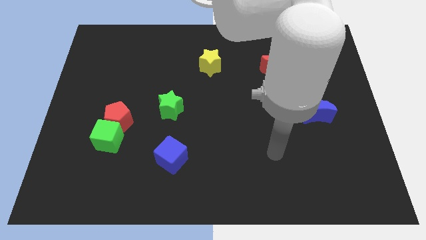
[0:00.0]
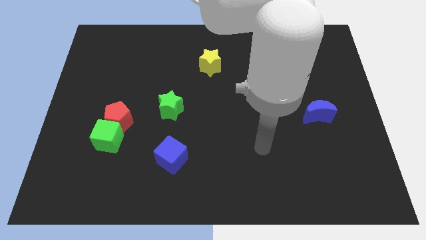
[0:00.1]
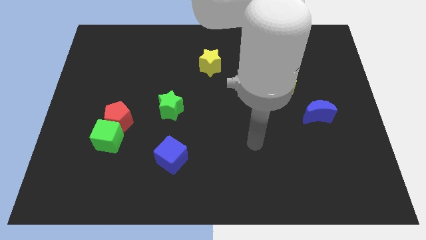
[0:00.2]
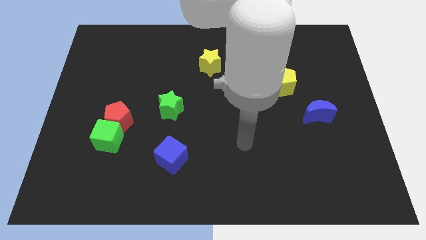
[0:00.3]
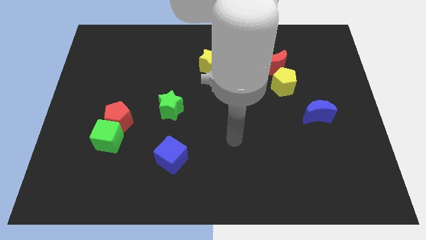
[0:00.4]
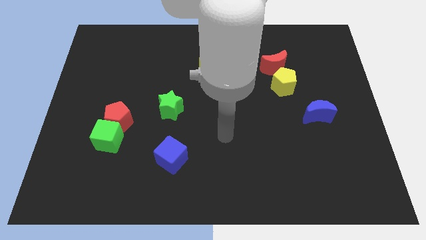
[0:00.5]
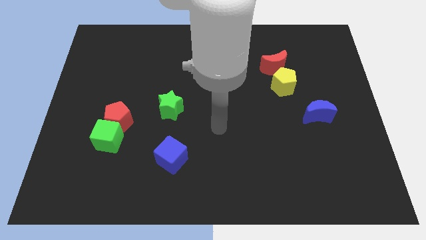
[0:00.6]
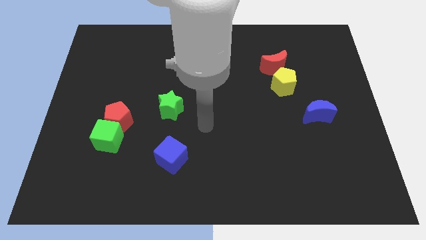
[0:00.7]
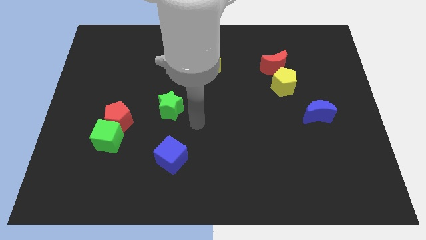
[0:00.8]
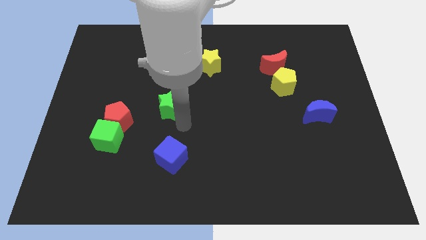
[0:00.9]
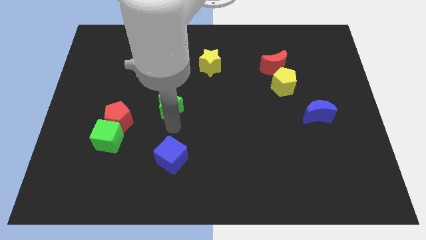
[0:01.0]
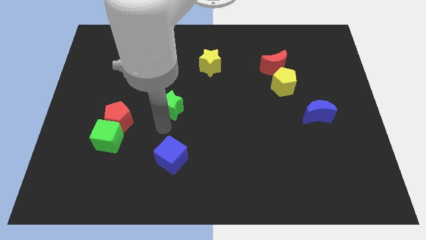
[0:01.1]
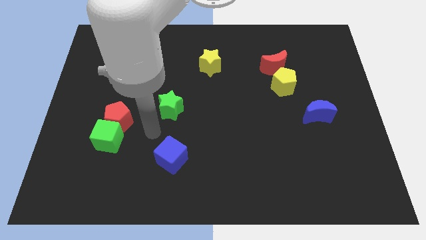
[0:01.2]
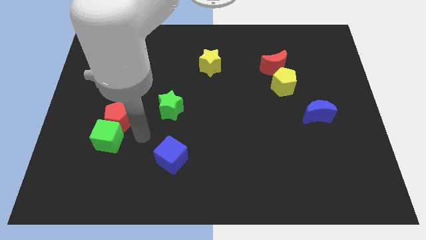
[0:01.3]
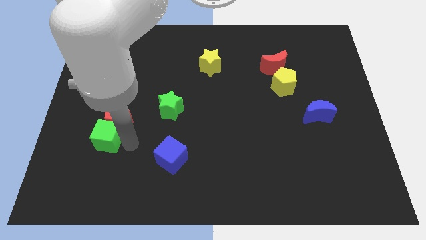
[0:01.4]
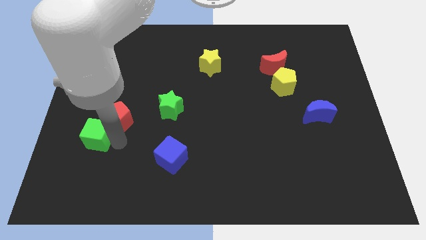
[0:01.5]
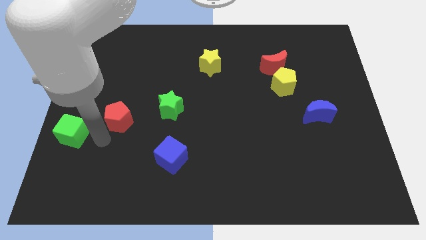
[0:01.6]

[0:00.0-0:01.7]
move the red pentagon away from the green cube

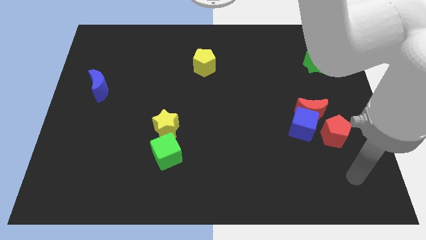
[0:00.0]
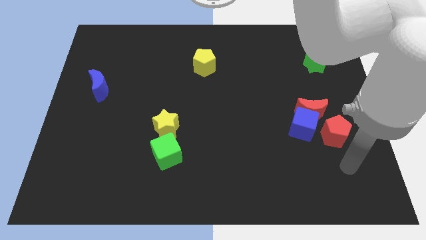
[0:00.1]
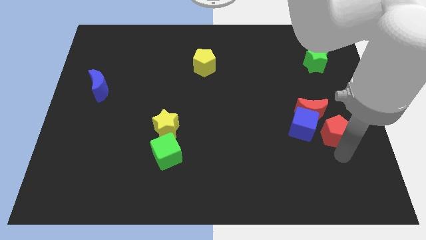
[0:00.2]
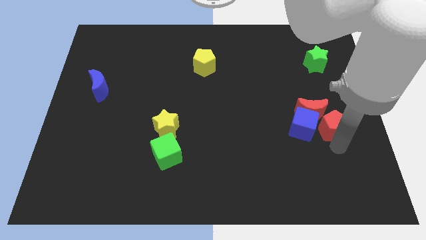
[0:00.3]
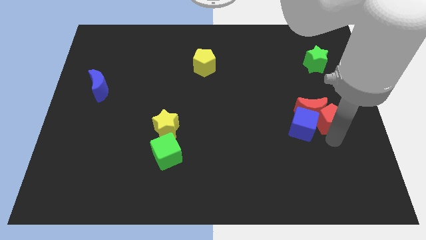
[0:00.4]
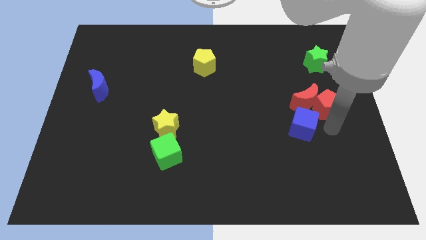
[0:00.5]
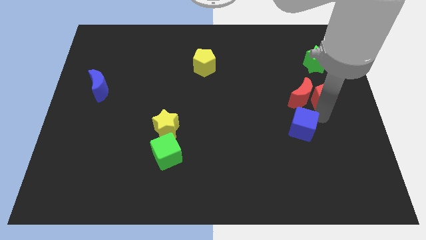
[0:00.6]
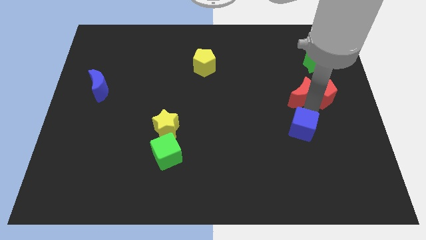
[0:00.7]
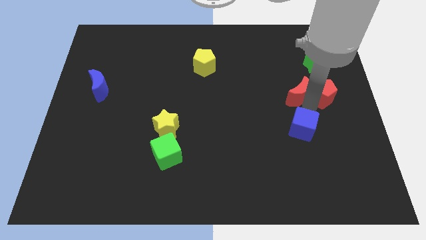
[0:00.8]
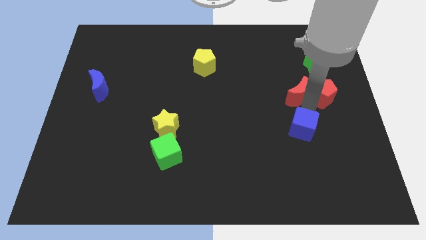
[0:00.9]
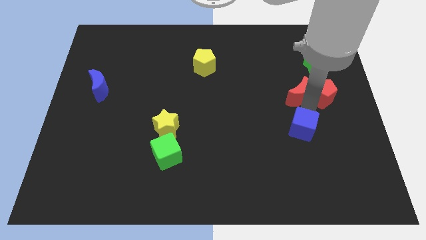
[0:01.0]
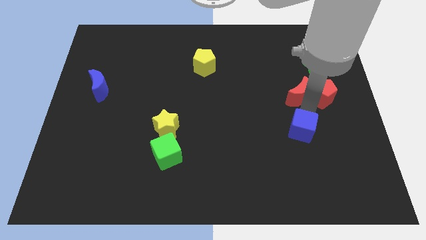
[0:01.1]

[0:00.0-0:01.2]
move the blue cube away from the red moon and red pentagon

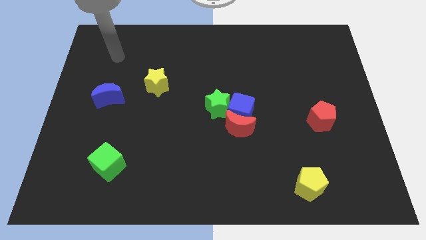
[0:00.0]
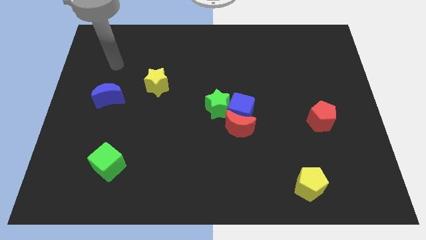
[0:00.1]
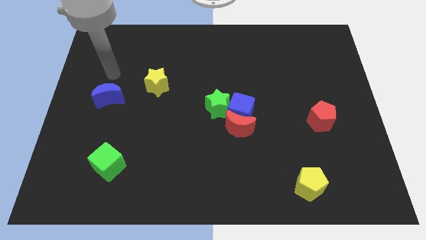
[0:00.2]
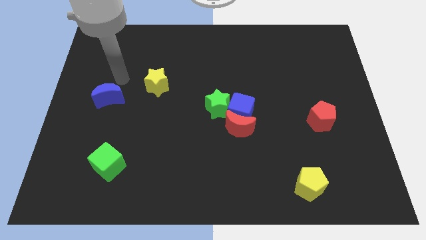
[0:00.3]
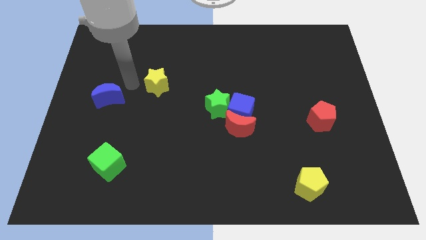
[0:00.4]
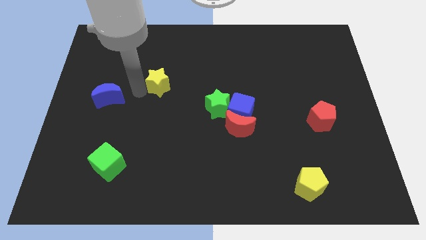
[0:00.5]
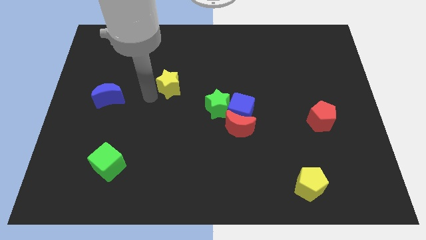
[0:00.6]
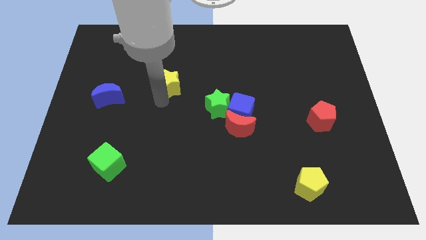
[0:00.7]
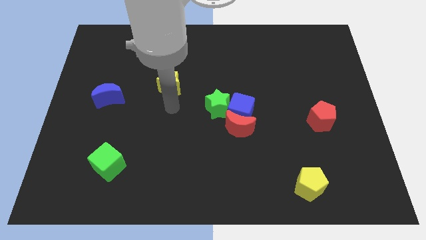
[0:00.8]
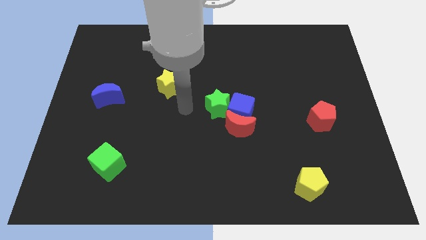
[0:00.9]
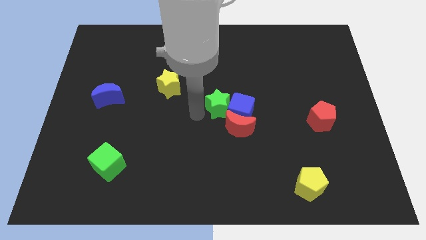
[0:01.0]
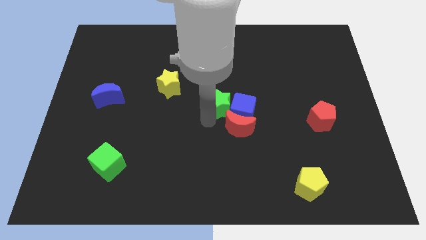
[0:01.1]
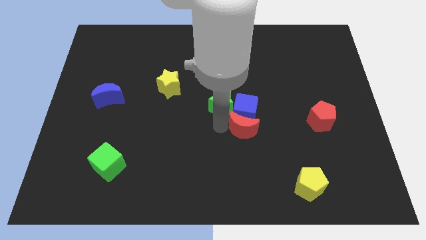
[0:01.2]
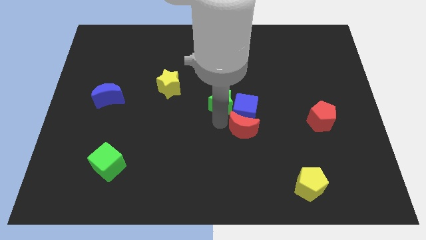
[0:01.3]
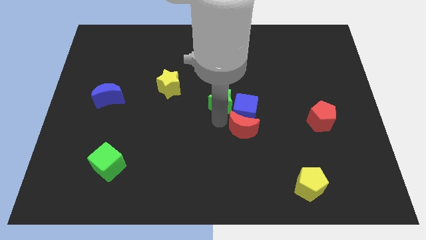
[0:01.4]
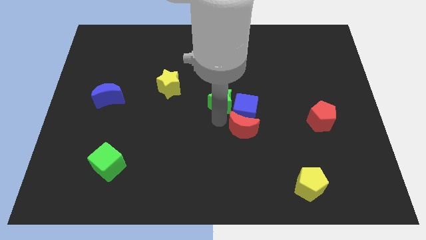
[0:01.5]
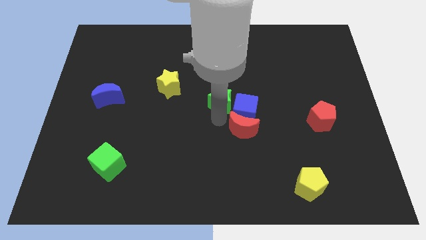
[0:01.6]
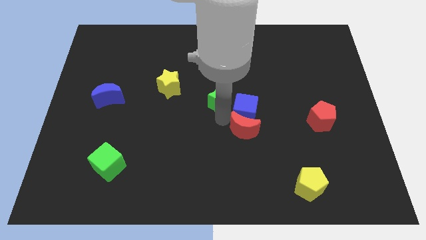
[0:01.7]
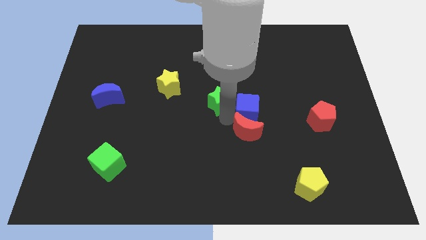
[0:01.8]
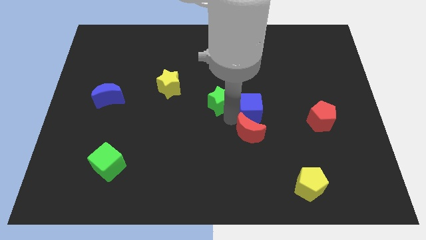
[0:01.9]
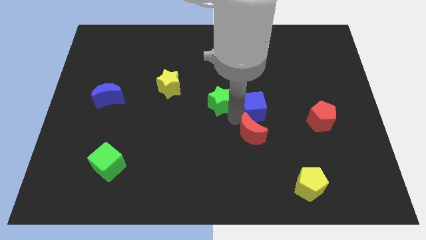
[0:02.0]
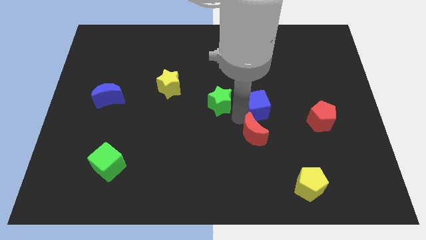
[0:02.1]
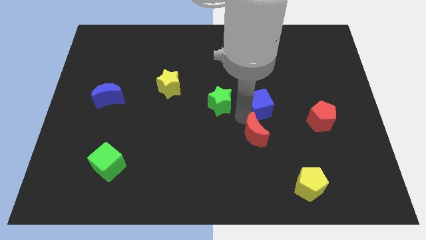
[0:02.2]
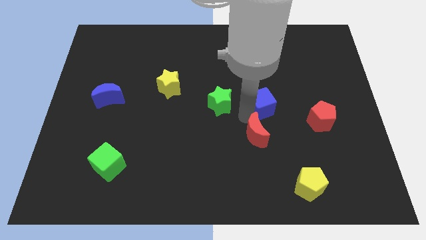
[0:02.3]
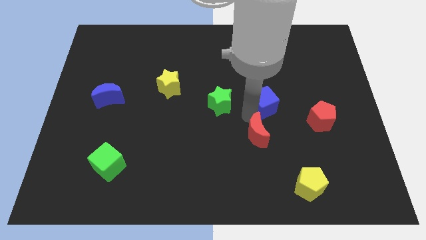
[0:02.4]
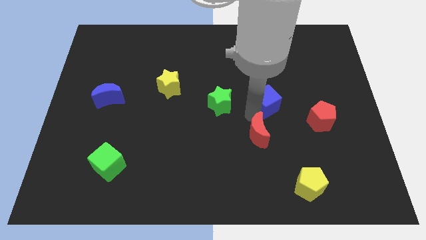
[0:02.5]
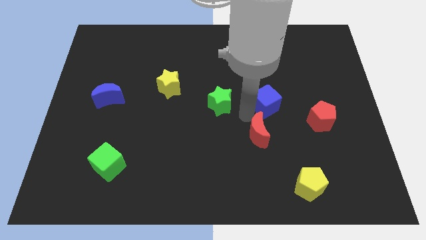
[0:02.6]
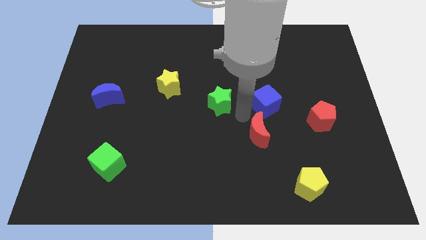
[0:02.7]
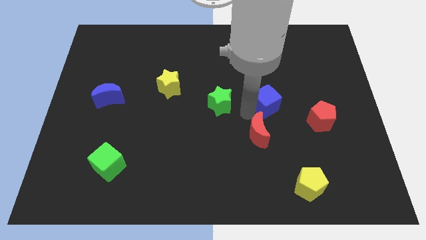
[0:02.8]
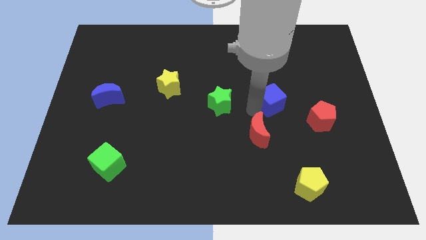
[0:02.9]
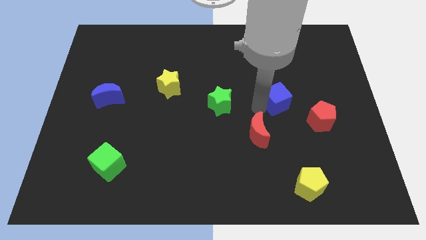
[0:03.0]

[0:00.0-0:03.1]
pull the blue cube apart from the red moon and green star

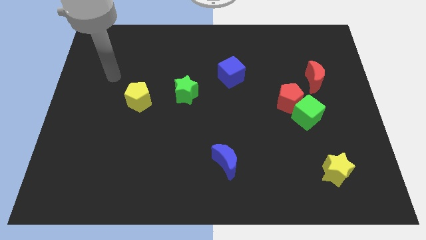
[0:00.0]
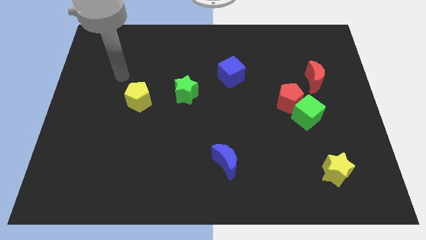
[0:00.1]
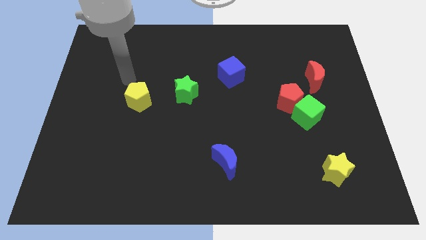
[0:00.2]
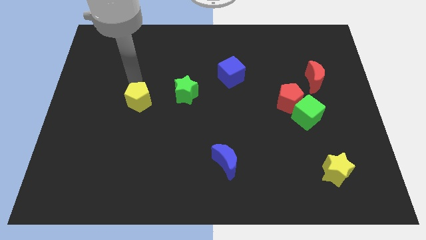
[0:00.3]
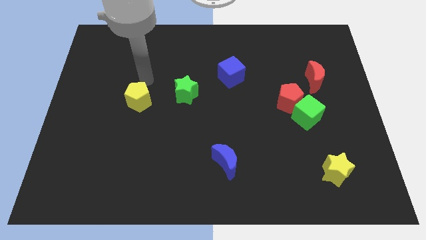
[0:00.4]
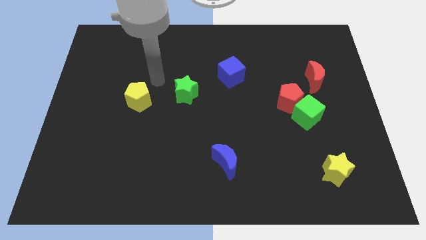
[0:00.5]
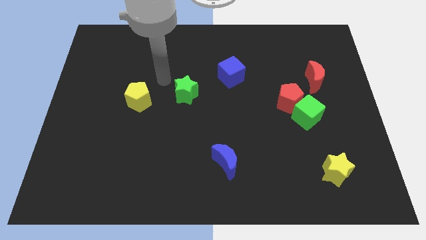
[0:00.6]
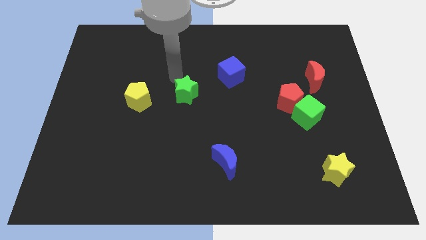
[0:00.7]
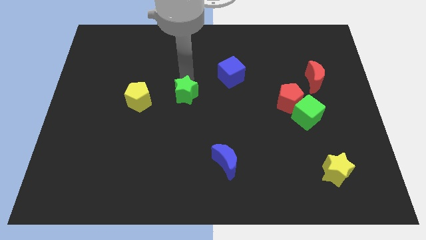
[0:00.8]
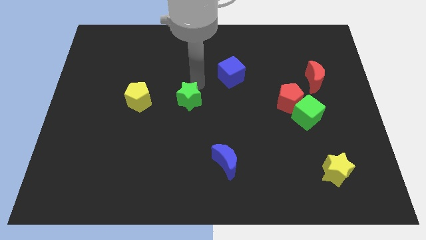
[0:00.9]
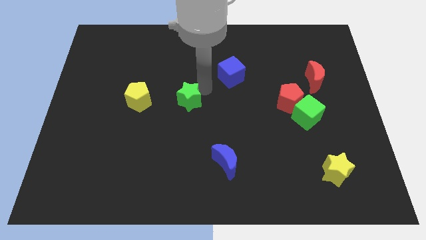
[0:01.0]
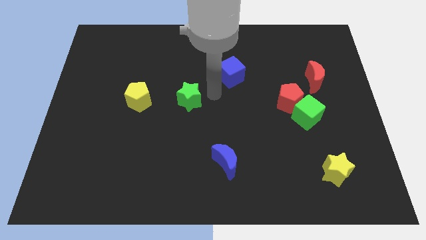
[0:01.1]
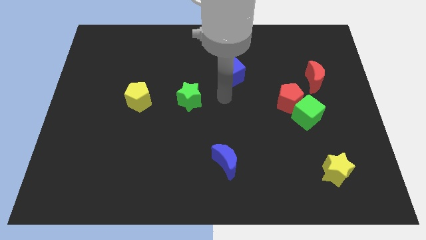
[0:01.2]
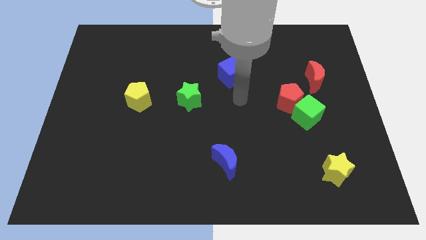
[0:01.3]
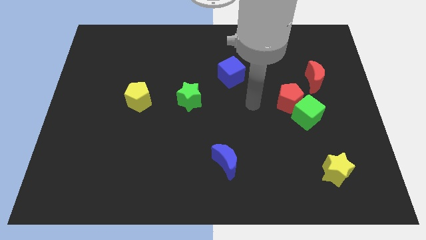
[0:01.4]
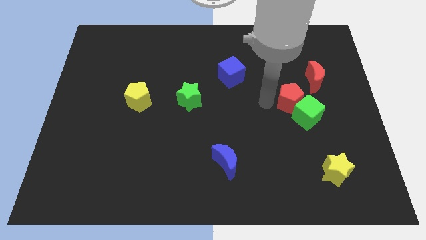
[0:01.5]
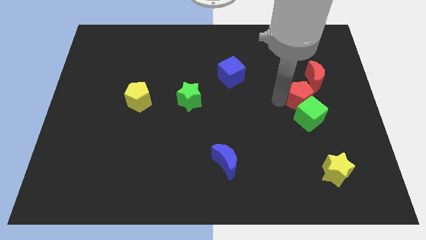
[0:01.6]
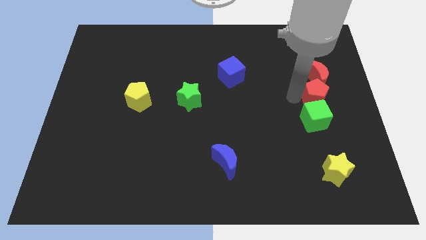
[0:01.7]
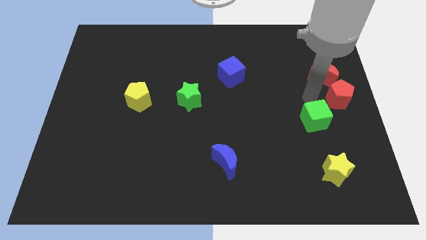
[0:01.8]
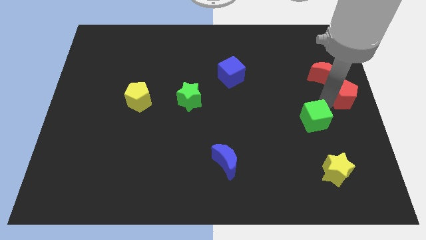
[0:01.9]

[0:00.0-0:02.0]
separate the green cube from the red pentagon

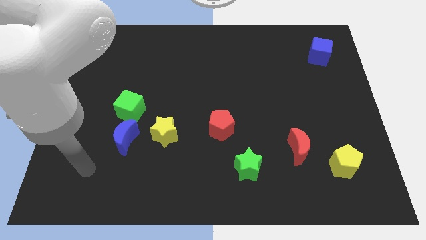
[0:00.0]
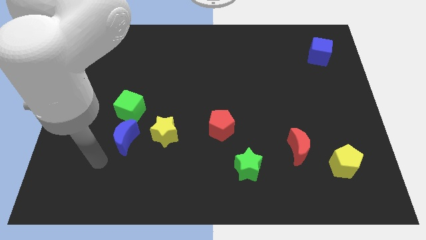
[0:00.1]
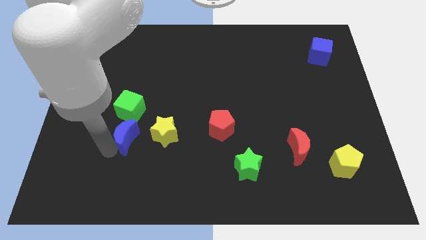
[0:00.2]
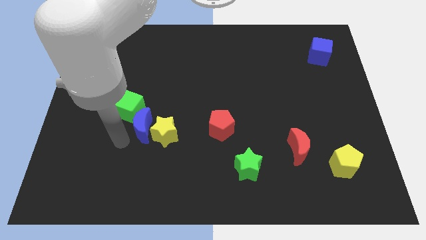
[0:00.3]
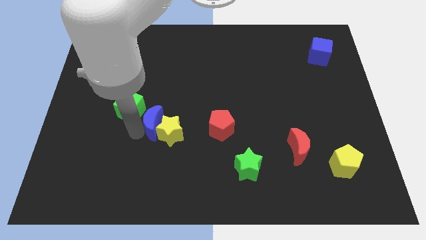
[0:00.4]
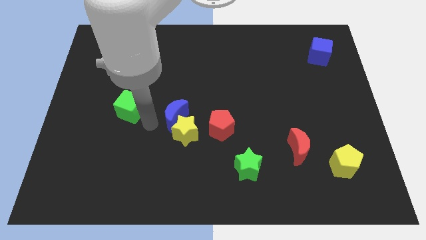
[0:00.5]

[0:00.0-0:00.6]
move the green cube away from the blue moon

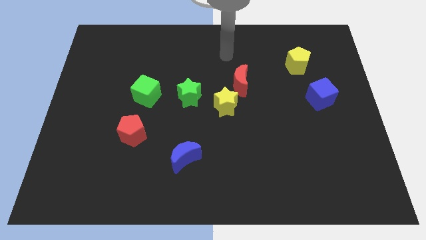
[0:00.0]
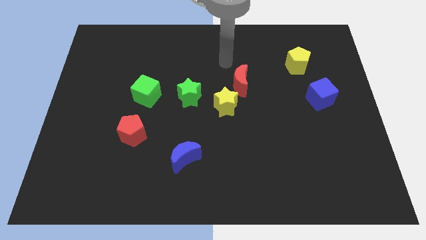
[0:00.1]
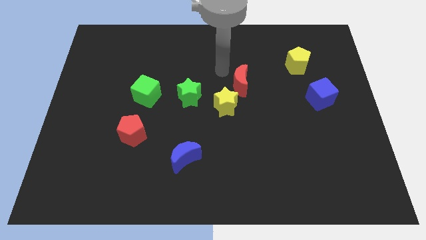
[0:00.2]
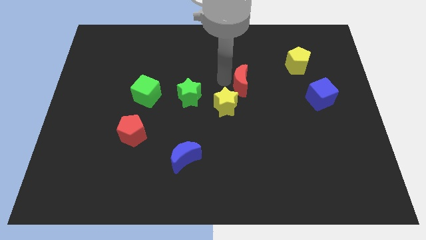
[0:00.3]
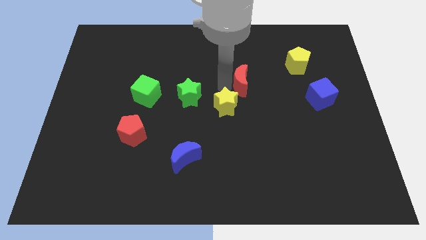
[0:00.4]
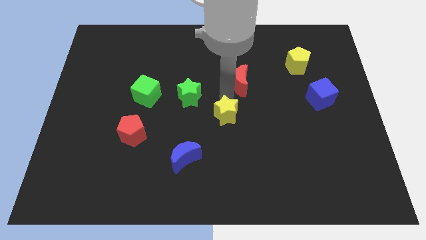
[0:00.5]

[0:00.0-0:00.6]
pull the red moon apart from the yellow star
